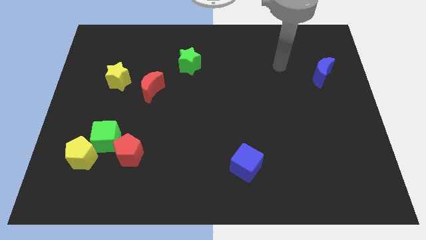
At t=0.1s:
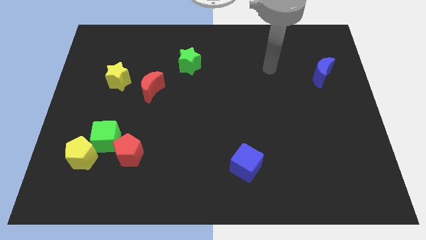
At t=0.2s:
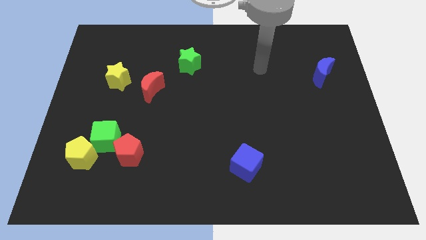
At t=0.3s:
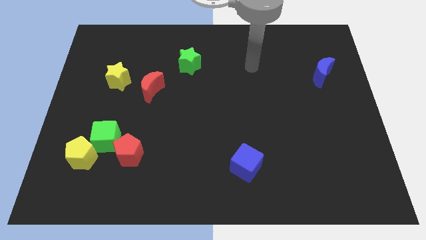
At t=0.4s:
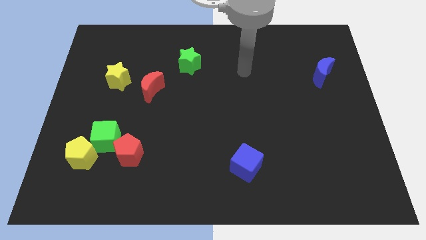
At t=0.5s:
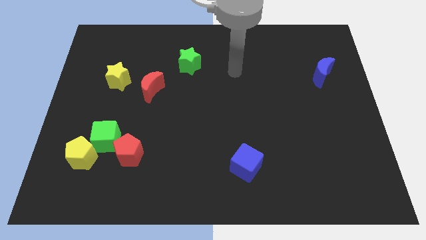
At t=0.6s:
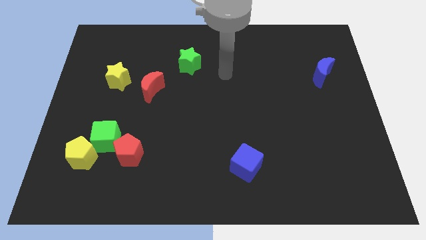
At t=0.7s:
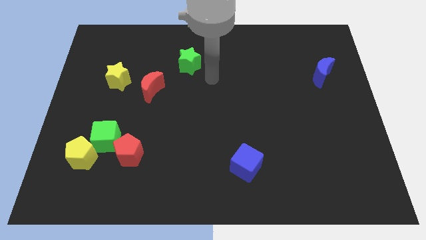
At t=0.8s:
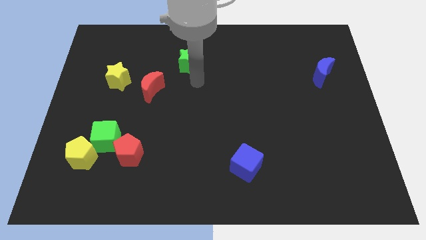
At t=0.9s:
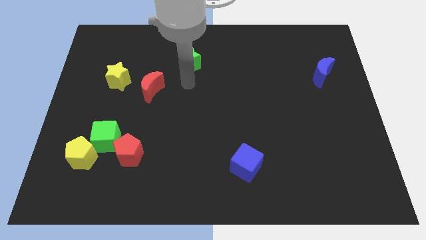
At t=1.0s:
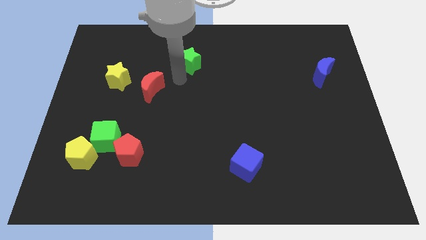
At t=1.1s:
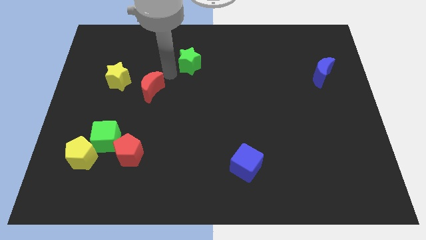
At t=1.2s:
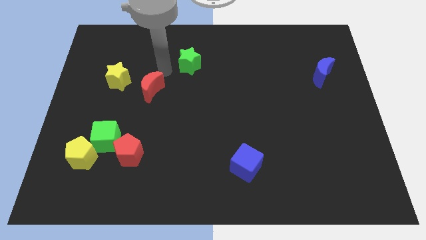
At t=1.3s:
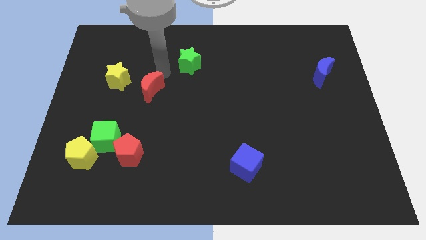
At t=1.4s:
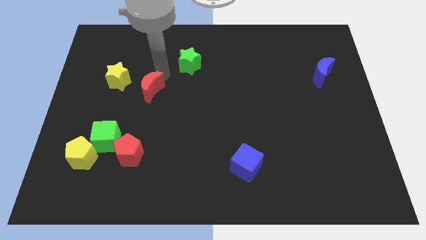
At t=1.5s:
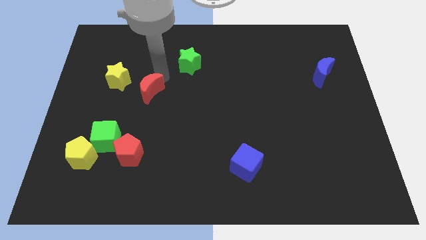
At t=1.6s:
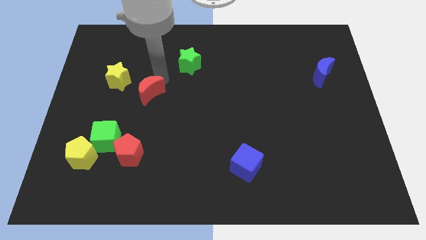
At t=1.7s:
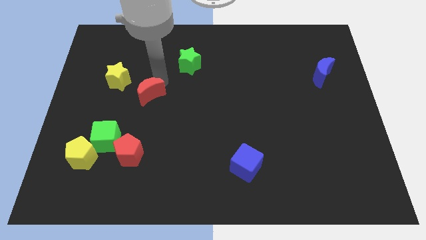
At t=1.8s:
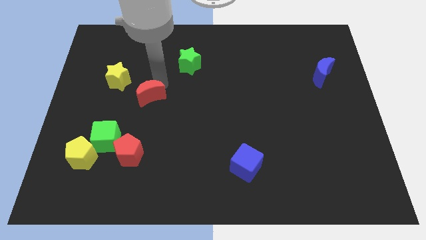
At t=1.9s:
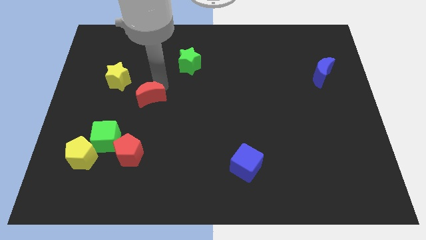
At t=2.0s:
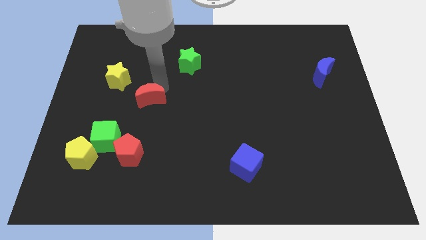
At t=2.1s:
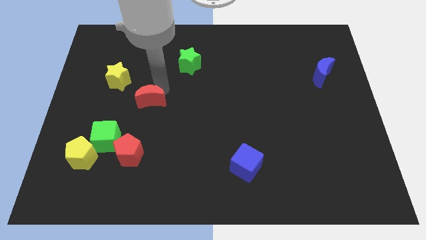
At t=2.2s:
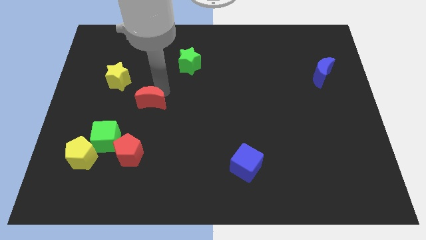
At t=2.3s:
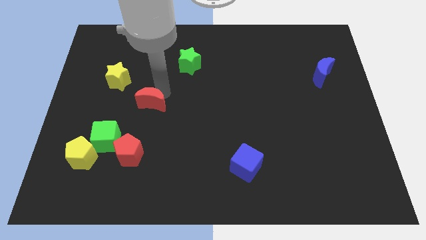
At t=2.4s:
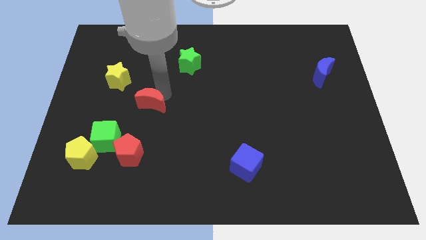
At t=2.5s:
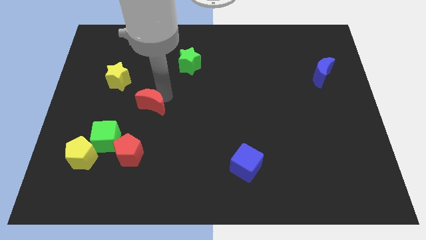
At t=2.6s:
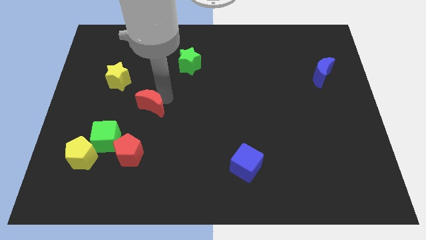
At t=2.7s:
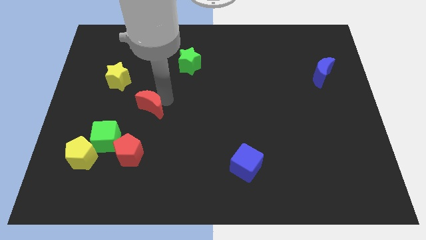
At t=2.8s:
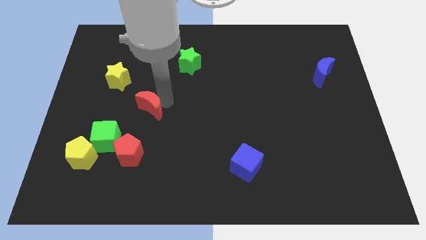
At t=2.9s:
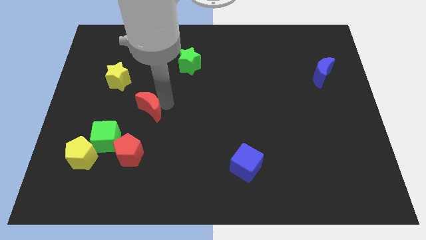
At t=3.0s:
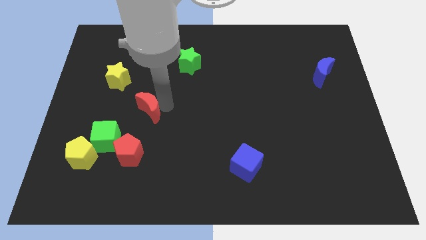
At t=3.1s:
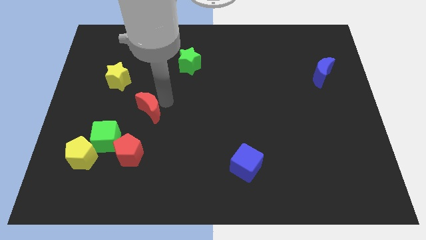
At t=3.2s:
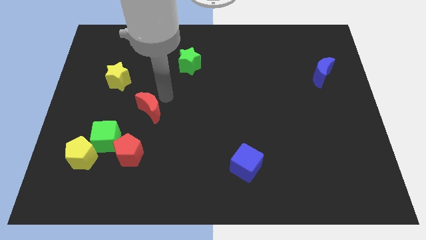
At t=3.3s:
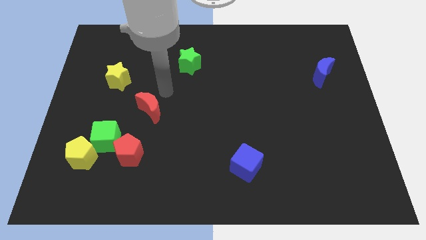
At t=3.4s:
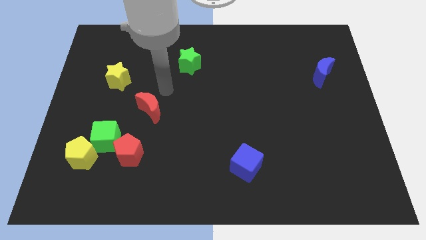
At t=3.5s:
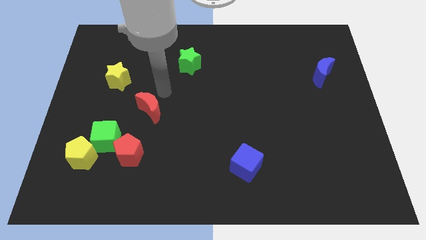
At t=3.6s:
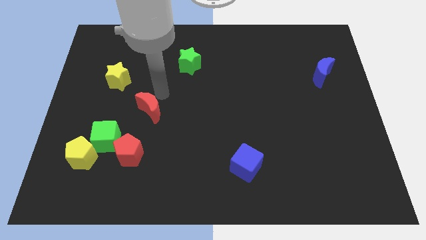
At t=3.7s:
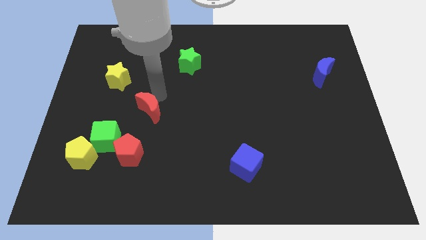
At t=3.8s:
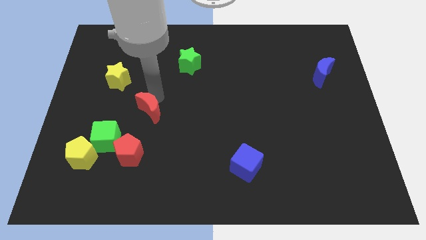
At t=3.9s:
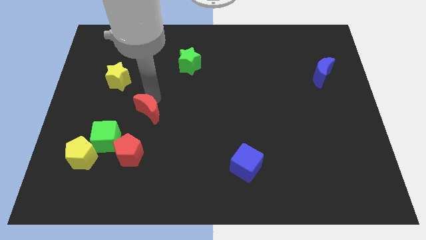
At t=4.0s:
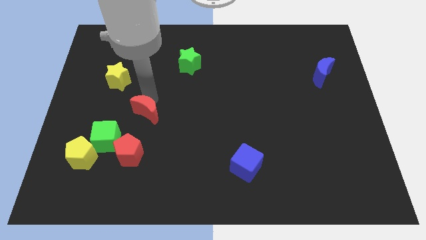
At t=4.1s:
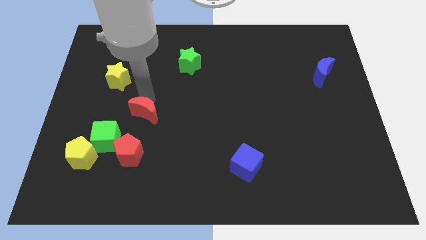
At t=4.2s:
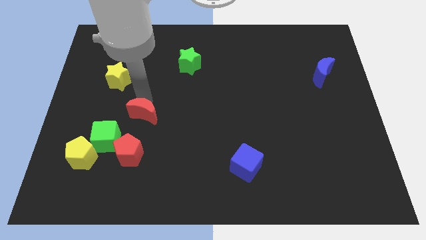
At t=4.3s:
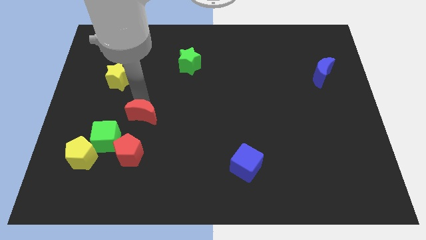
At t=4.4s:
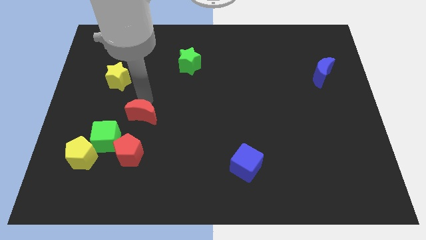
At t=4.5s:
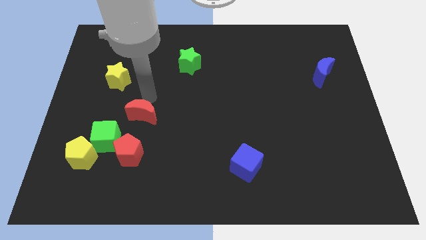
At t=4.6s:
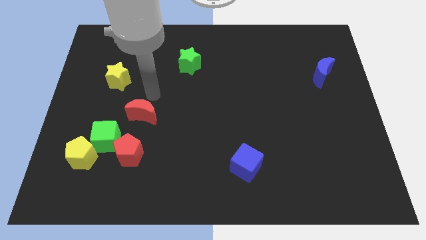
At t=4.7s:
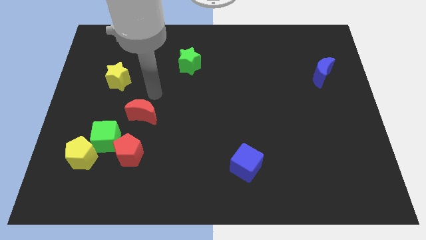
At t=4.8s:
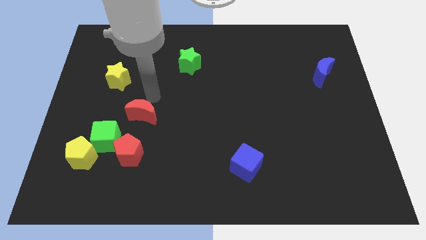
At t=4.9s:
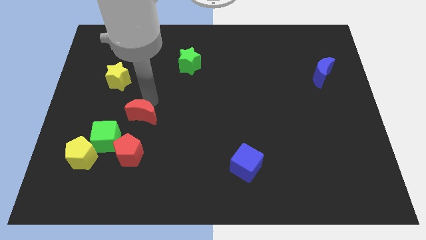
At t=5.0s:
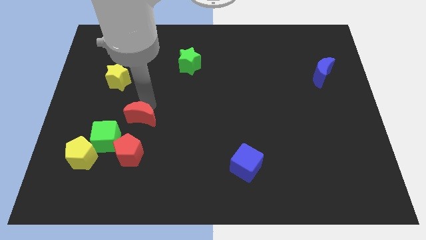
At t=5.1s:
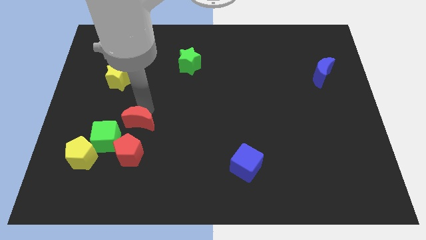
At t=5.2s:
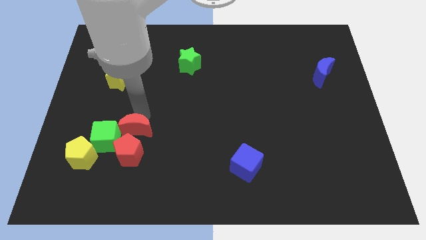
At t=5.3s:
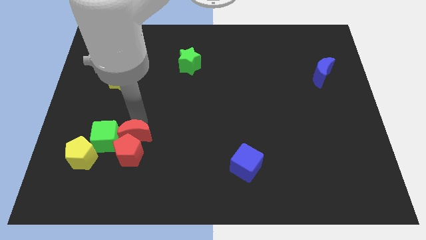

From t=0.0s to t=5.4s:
put the red moon close to the red pentagon

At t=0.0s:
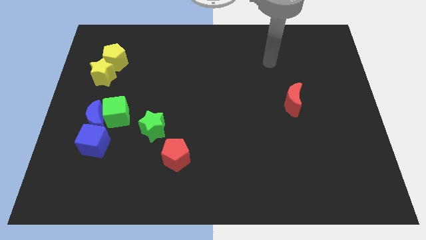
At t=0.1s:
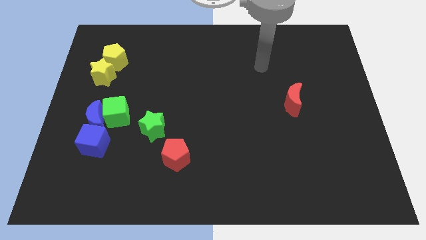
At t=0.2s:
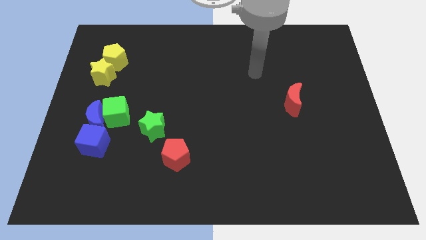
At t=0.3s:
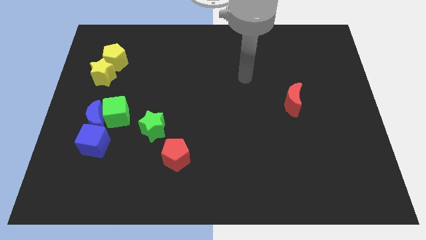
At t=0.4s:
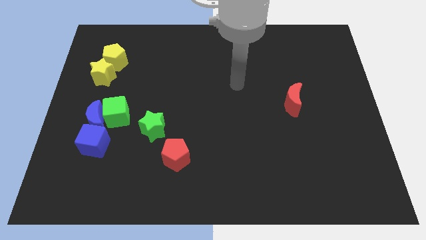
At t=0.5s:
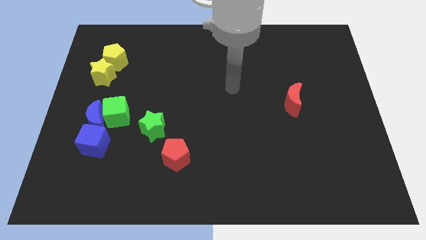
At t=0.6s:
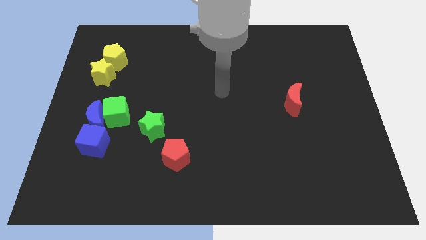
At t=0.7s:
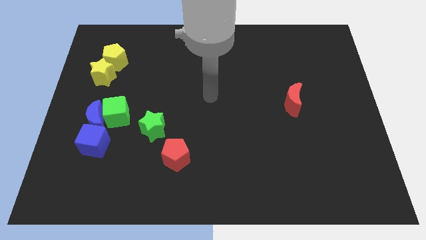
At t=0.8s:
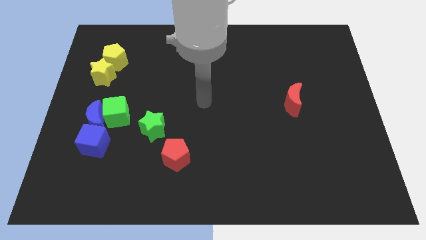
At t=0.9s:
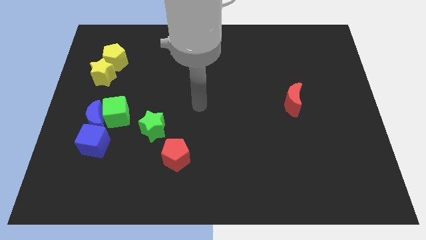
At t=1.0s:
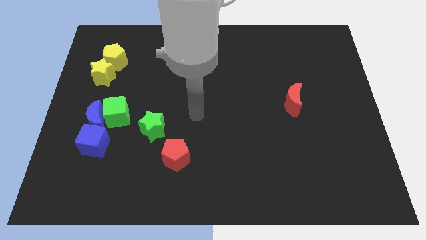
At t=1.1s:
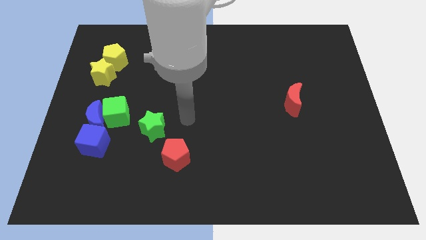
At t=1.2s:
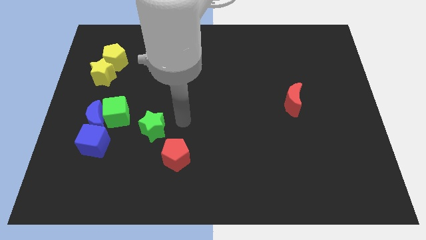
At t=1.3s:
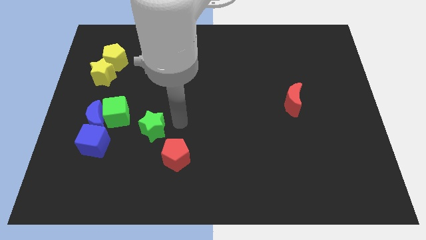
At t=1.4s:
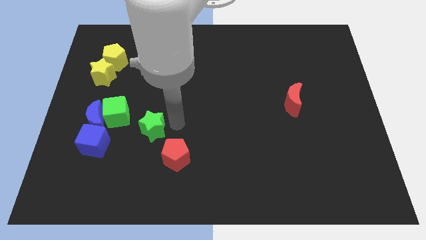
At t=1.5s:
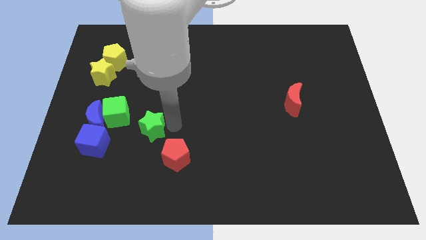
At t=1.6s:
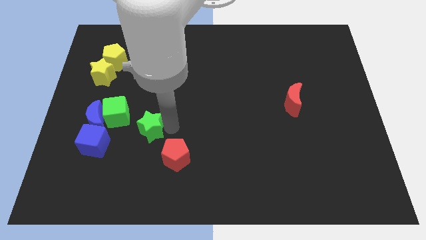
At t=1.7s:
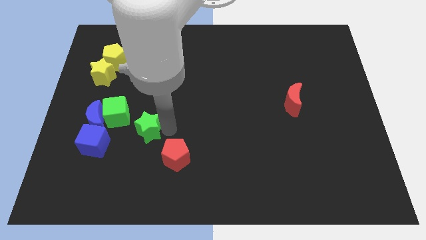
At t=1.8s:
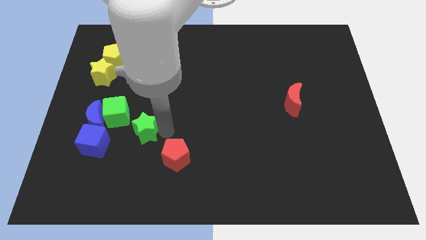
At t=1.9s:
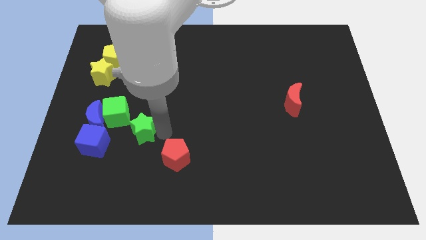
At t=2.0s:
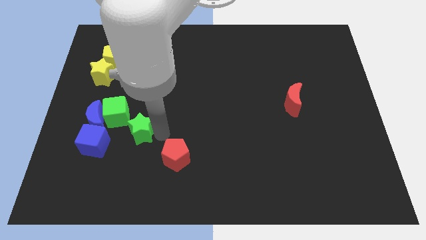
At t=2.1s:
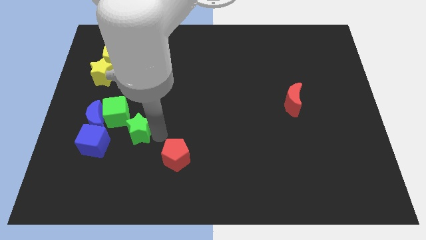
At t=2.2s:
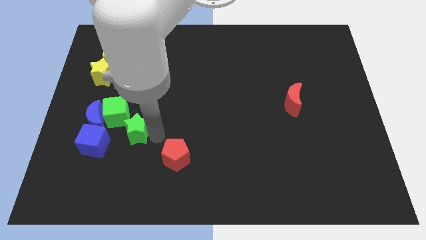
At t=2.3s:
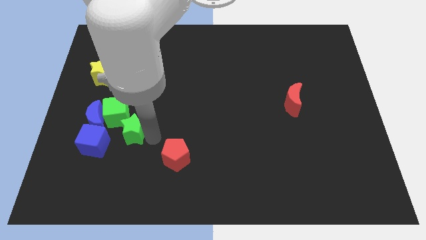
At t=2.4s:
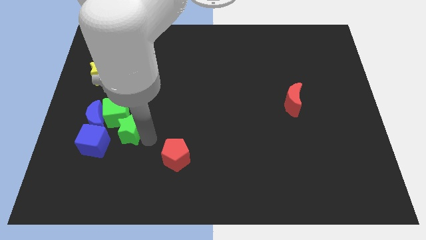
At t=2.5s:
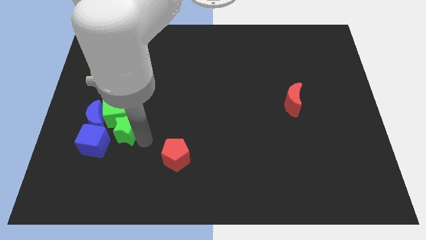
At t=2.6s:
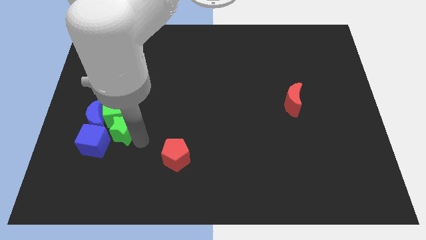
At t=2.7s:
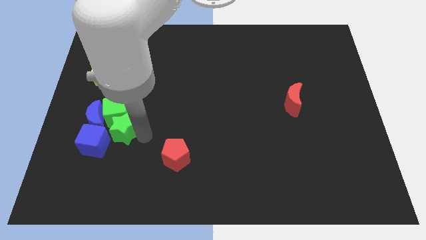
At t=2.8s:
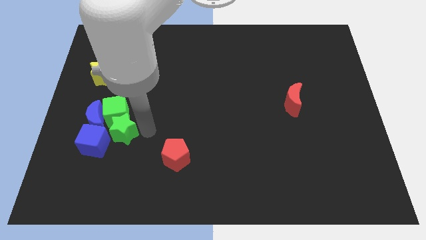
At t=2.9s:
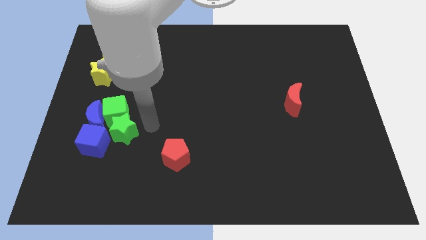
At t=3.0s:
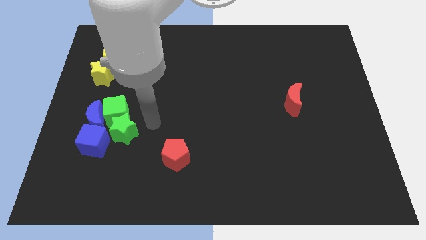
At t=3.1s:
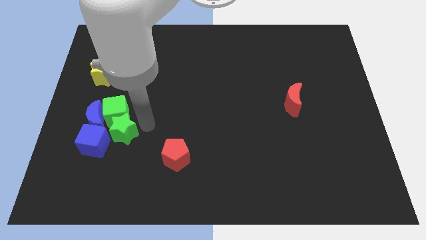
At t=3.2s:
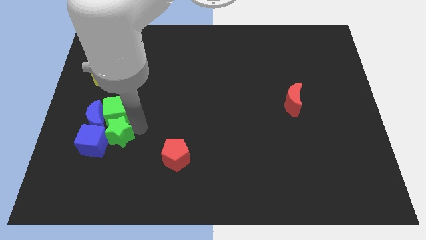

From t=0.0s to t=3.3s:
push the green star towards the blue cube
